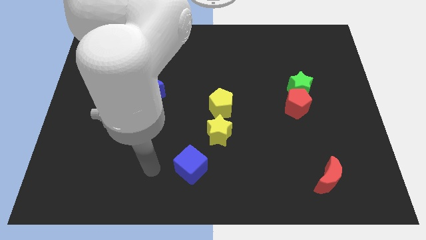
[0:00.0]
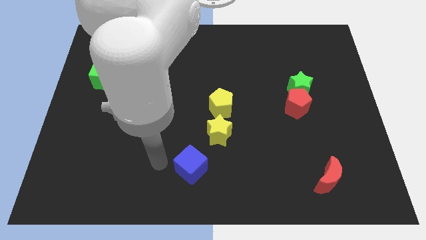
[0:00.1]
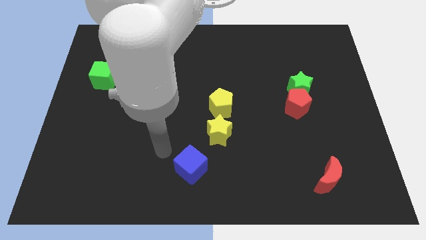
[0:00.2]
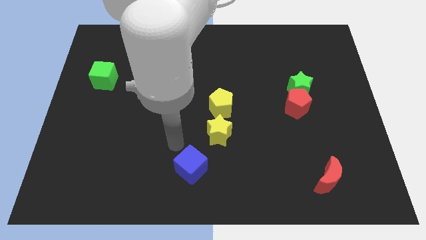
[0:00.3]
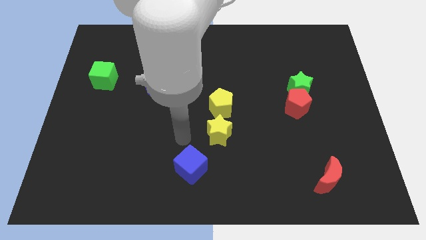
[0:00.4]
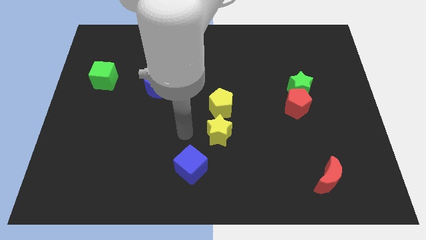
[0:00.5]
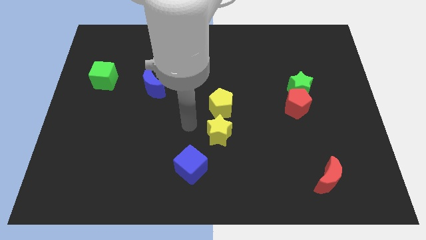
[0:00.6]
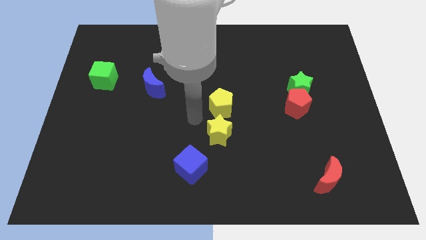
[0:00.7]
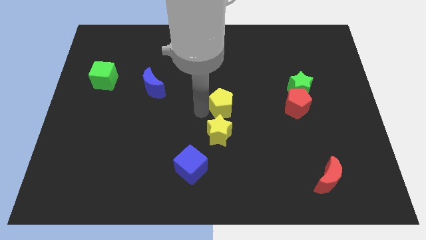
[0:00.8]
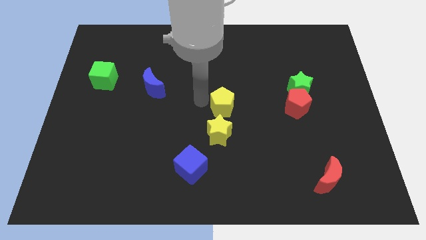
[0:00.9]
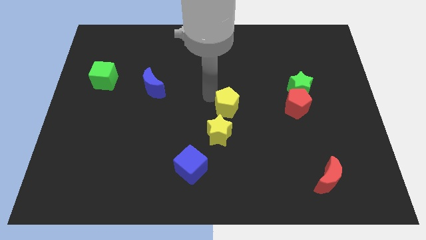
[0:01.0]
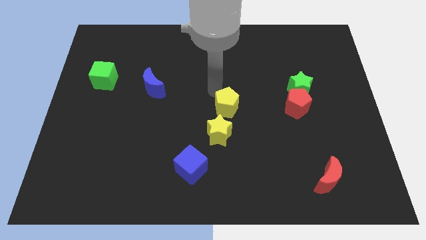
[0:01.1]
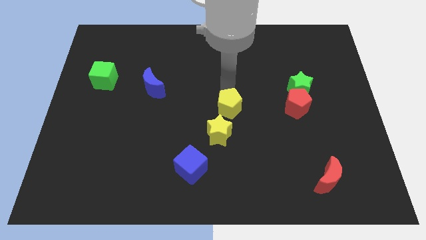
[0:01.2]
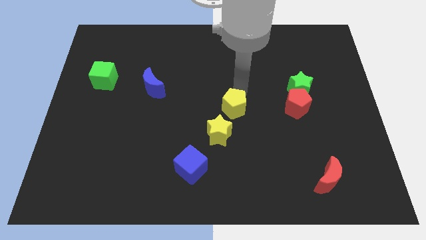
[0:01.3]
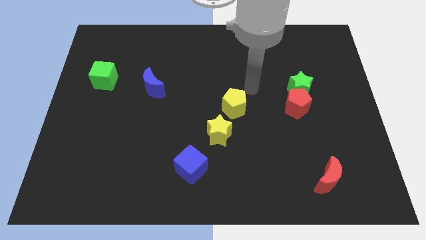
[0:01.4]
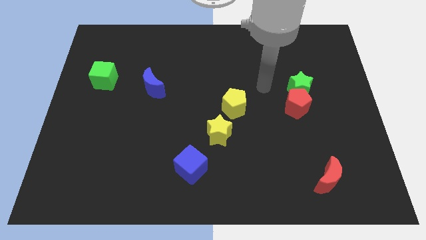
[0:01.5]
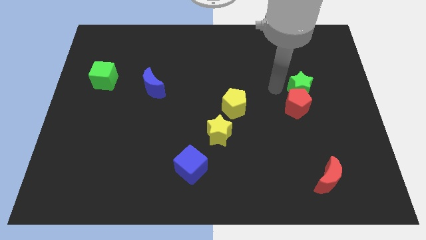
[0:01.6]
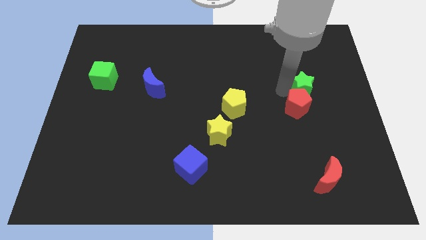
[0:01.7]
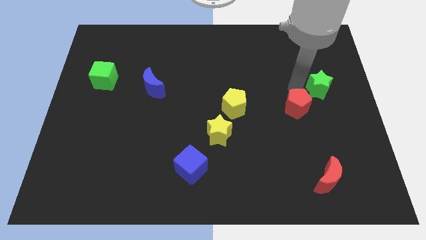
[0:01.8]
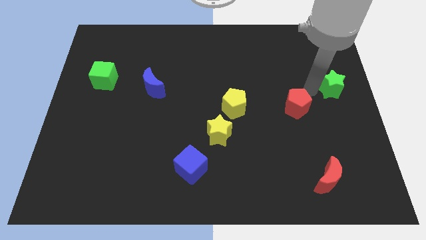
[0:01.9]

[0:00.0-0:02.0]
pull the red pentagon apart from the green star

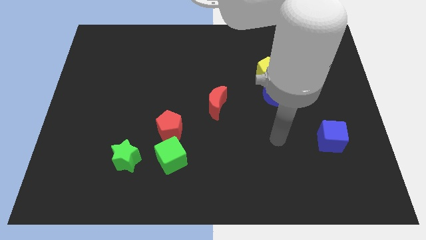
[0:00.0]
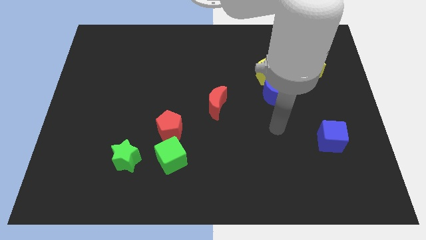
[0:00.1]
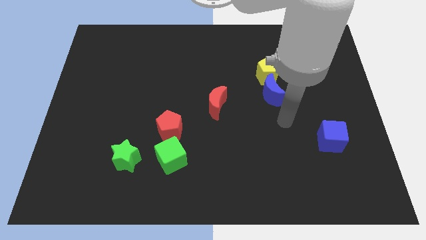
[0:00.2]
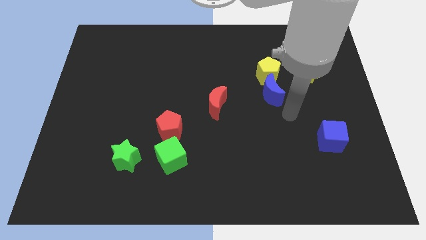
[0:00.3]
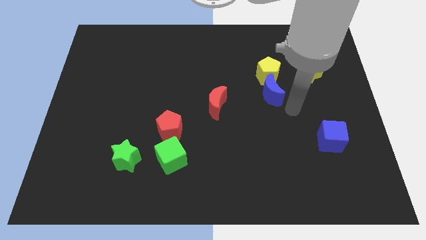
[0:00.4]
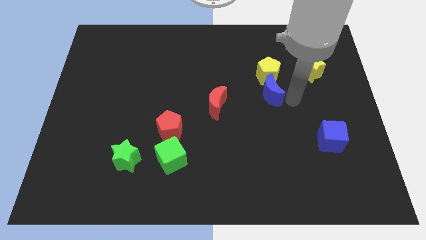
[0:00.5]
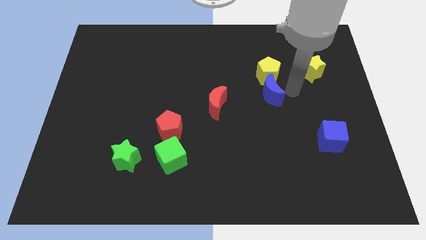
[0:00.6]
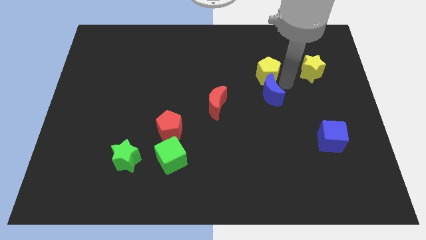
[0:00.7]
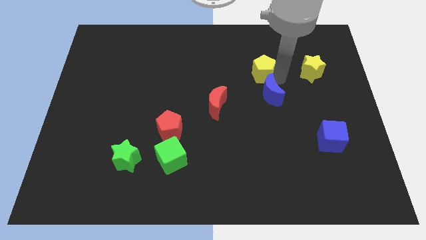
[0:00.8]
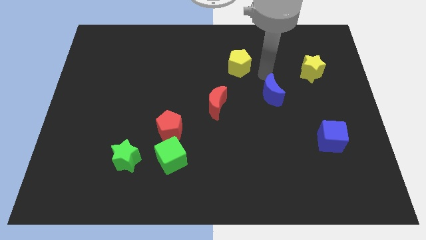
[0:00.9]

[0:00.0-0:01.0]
move the blue moon away from the yellow pentagon

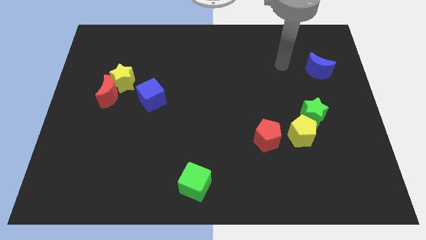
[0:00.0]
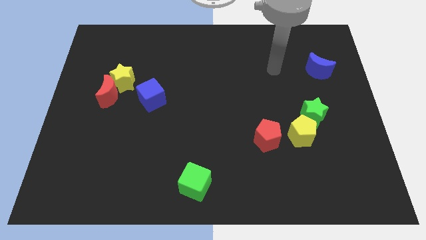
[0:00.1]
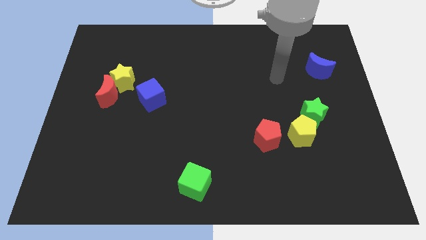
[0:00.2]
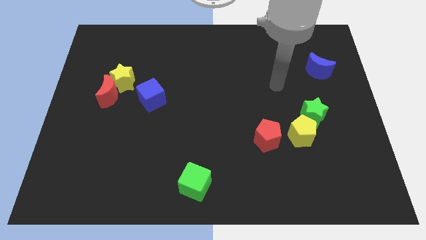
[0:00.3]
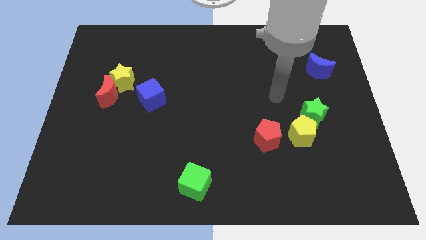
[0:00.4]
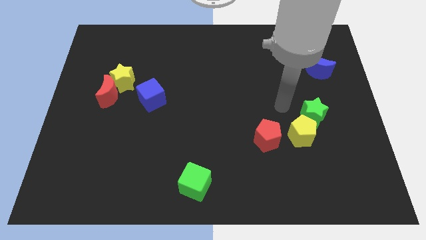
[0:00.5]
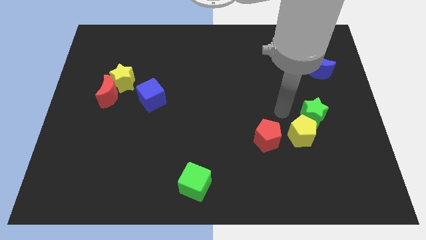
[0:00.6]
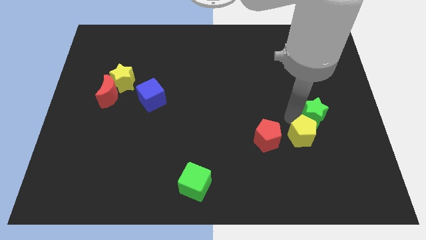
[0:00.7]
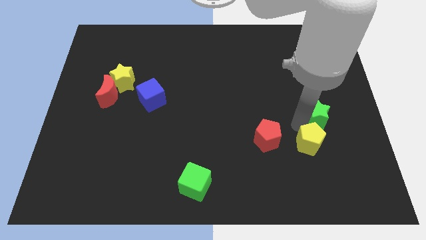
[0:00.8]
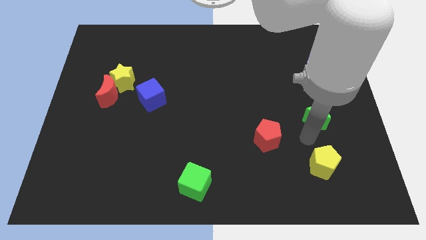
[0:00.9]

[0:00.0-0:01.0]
move the green star away from the yellow pentagon

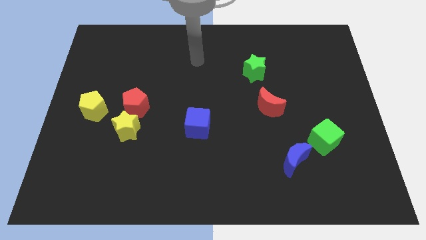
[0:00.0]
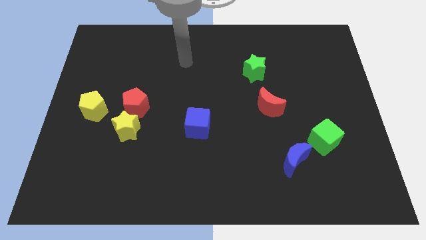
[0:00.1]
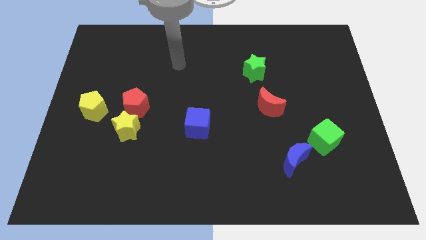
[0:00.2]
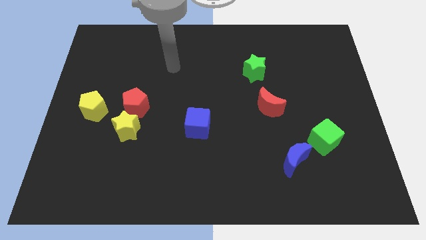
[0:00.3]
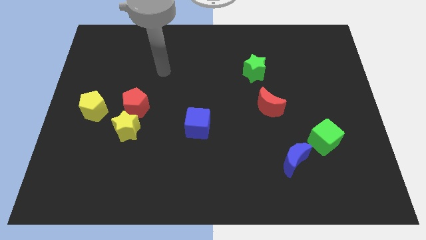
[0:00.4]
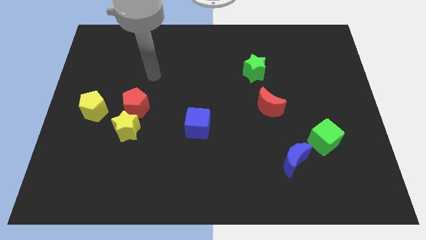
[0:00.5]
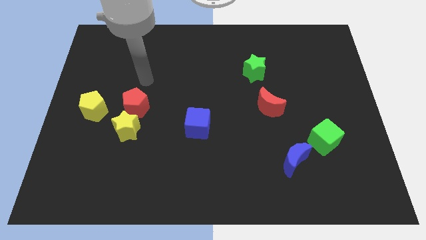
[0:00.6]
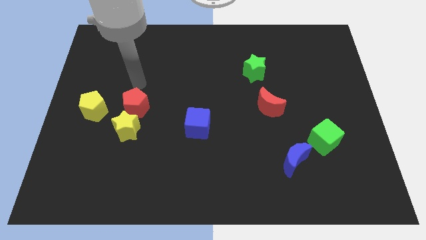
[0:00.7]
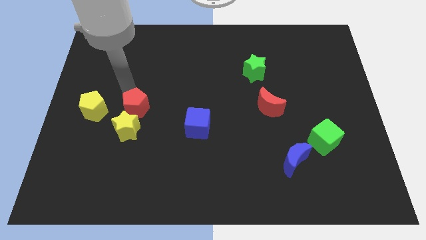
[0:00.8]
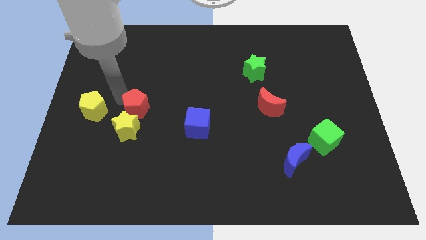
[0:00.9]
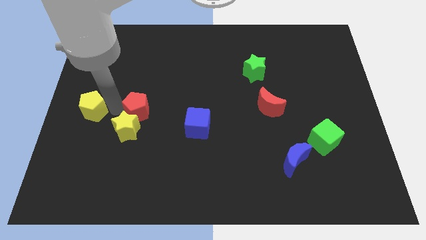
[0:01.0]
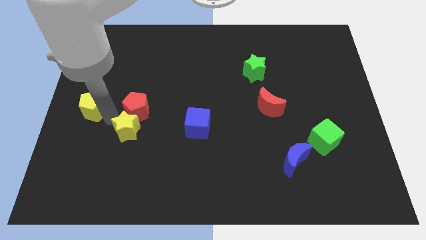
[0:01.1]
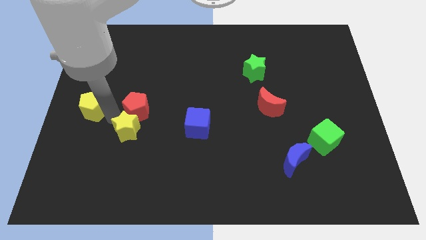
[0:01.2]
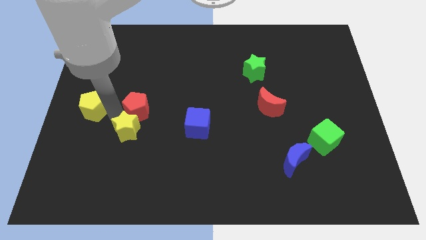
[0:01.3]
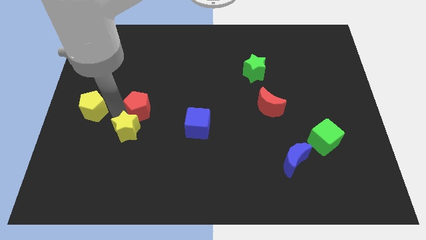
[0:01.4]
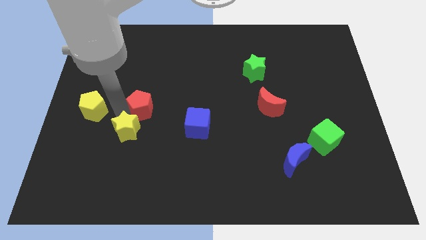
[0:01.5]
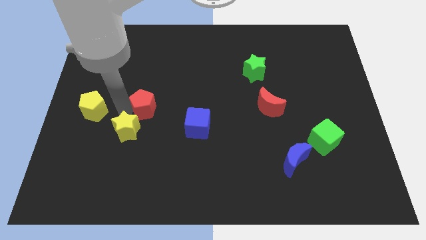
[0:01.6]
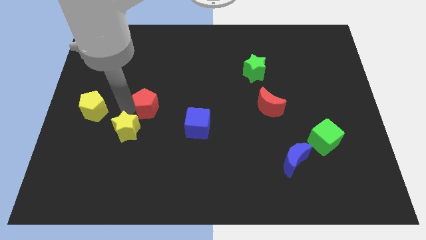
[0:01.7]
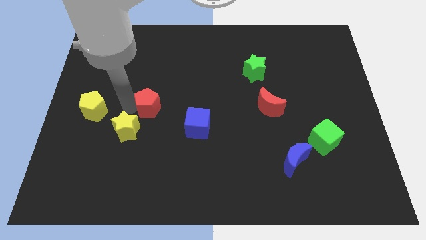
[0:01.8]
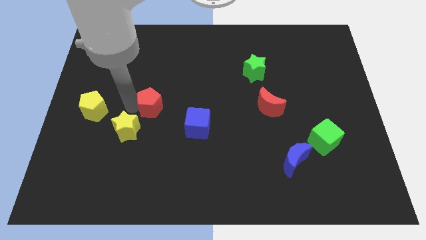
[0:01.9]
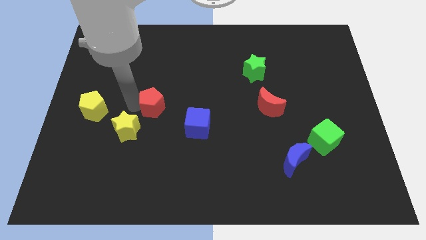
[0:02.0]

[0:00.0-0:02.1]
move the red pentagon away from the yellow star and yellow pentagon

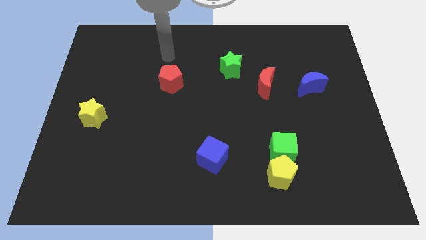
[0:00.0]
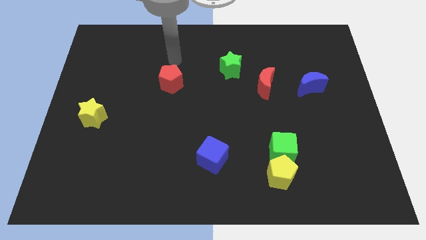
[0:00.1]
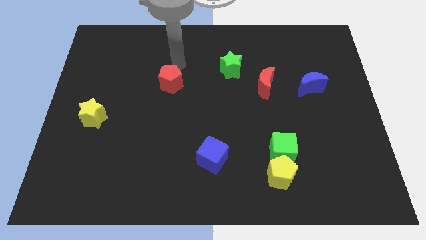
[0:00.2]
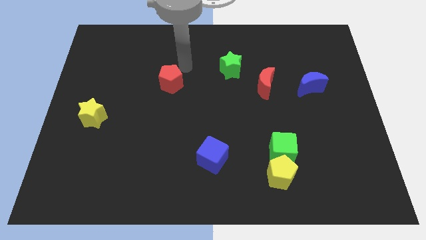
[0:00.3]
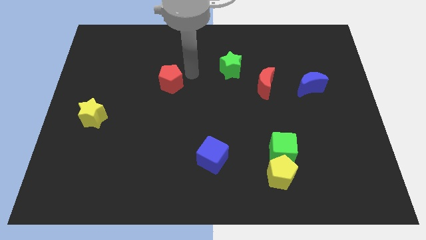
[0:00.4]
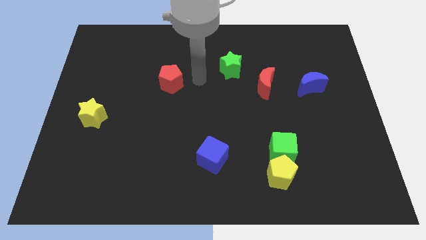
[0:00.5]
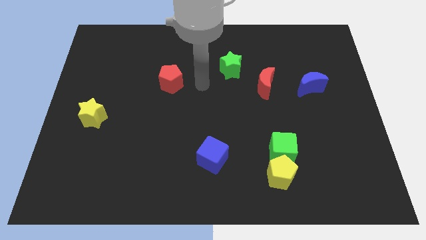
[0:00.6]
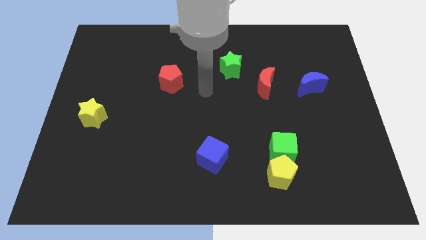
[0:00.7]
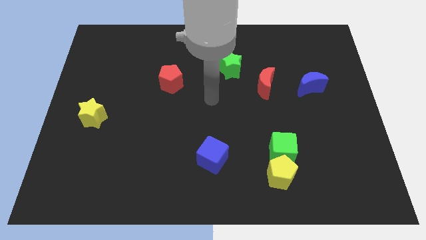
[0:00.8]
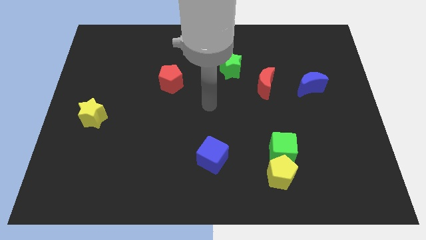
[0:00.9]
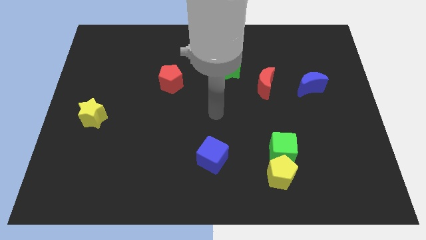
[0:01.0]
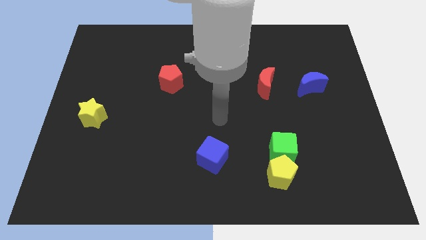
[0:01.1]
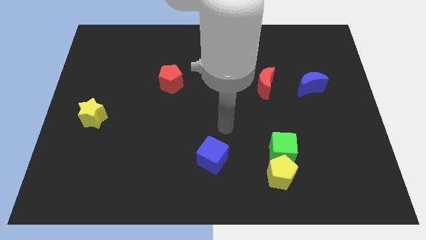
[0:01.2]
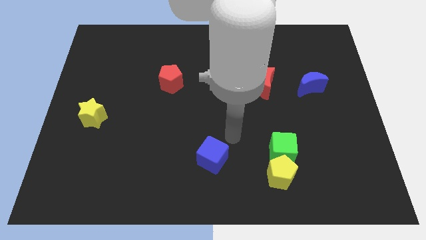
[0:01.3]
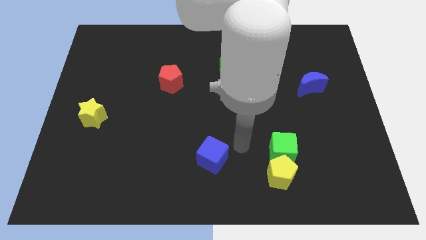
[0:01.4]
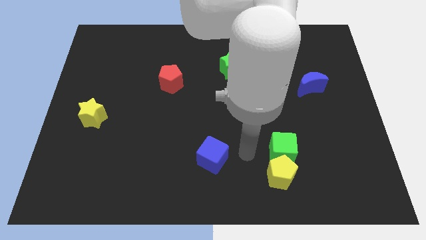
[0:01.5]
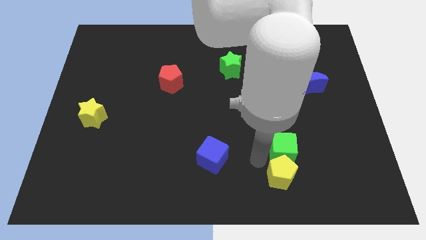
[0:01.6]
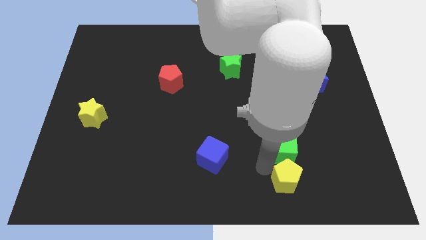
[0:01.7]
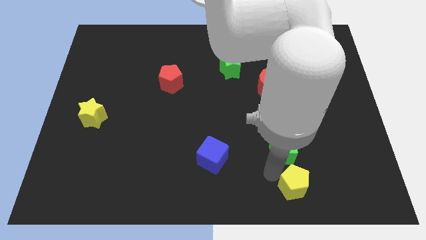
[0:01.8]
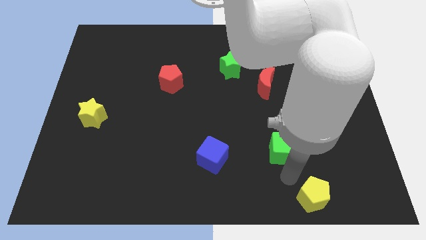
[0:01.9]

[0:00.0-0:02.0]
move the green cube away from the yellow pentagon

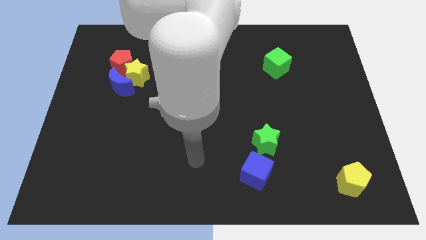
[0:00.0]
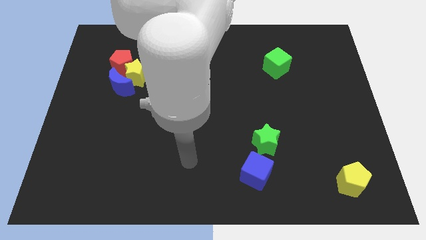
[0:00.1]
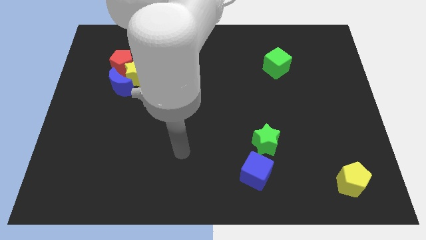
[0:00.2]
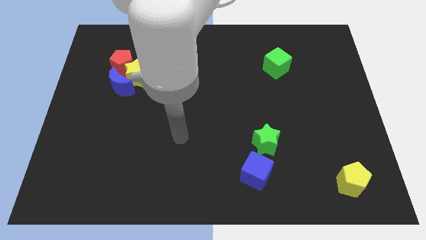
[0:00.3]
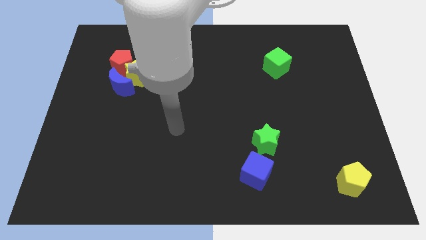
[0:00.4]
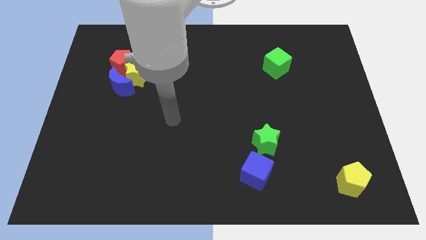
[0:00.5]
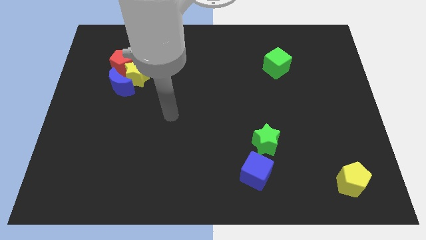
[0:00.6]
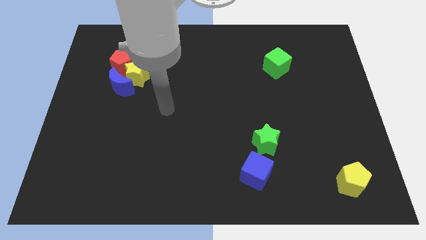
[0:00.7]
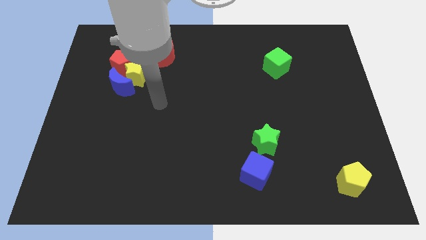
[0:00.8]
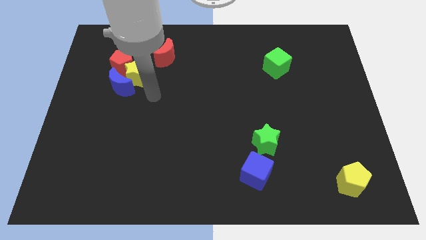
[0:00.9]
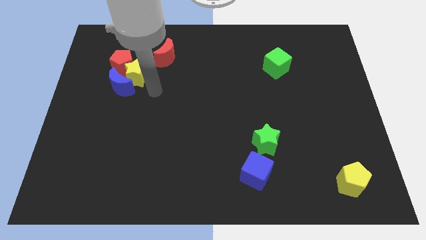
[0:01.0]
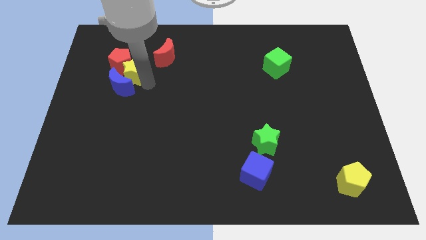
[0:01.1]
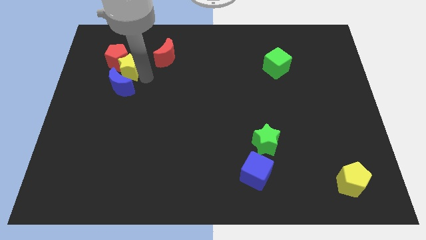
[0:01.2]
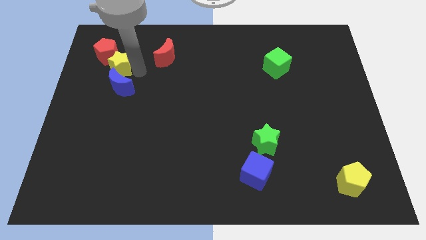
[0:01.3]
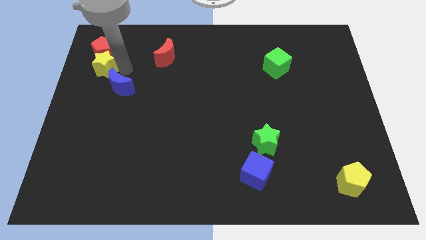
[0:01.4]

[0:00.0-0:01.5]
move the blue moon away from the yellow star and red pentagon
